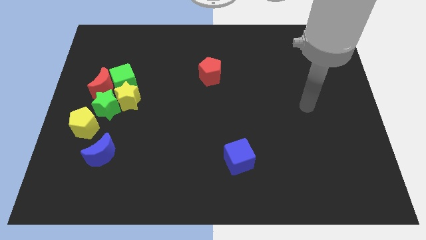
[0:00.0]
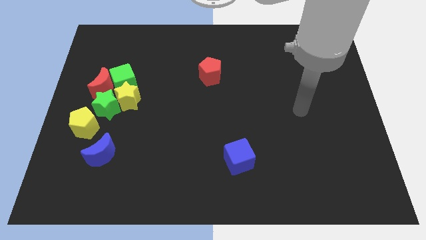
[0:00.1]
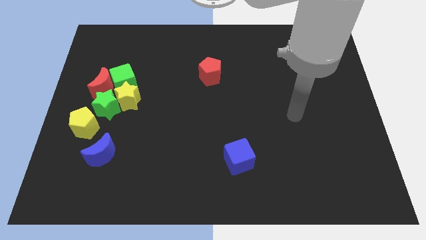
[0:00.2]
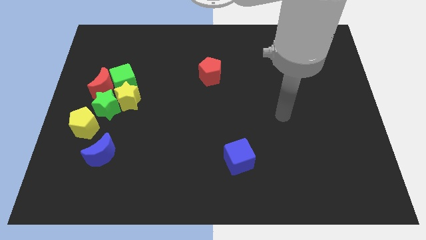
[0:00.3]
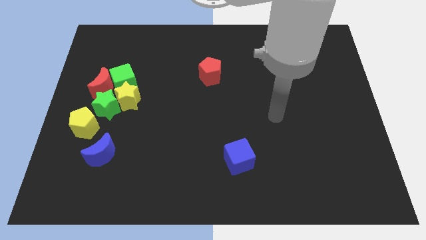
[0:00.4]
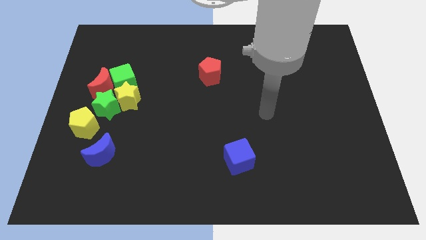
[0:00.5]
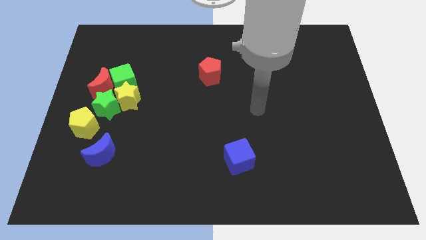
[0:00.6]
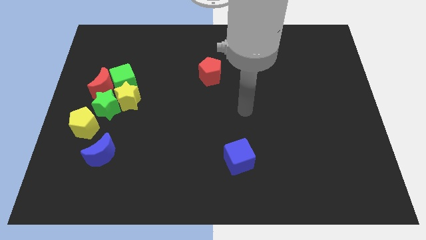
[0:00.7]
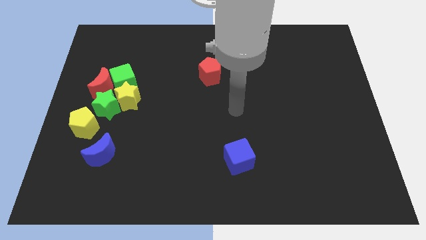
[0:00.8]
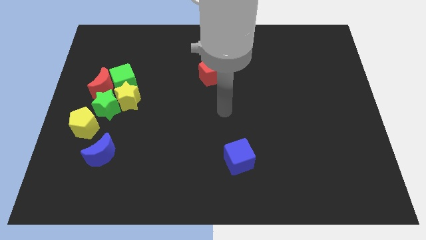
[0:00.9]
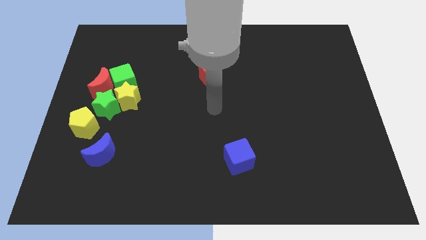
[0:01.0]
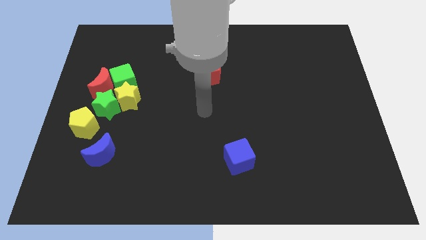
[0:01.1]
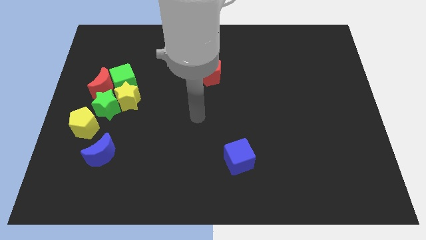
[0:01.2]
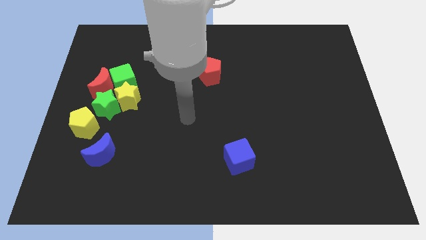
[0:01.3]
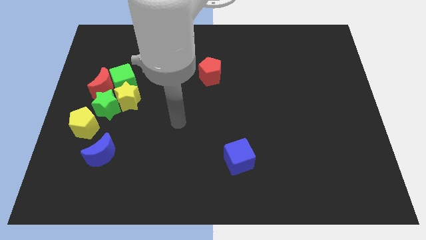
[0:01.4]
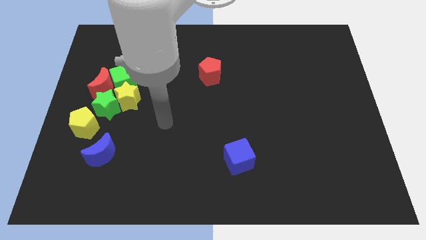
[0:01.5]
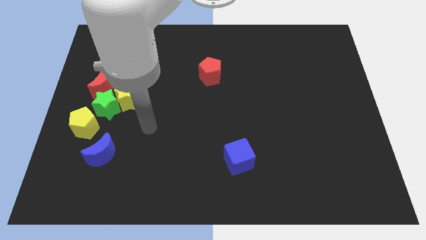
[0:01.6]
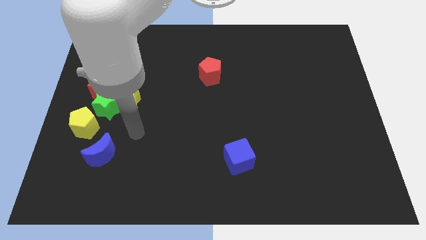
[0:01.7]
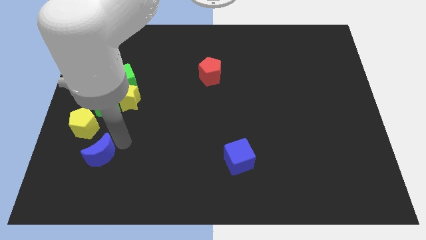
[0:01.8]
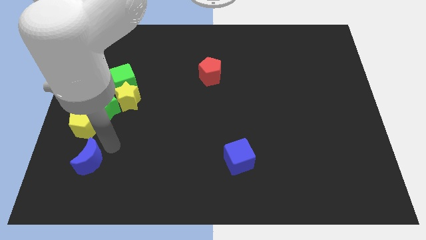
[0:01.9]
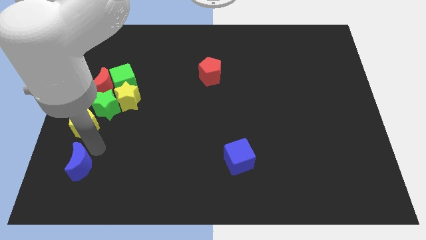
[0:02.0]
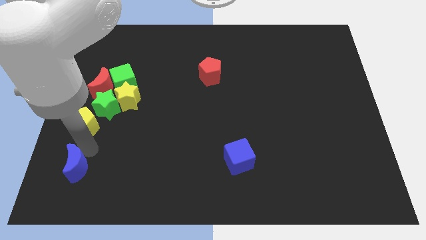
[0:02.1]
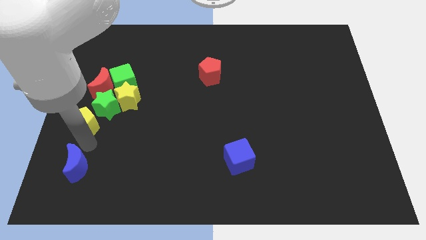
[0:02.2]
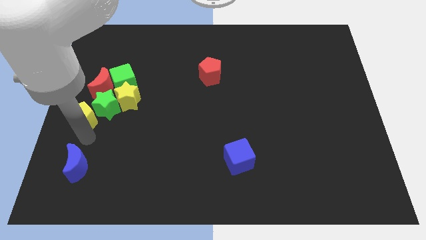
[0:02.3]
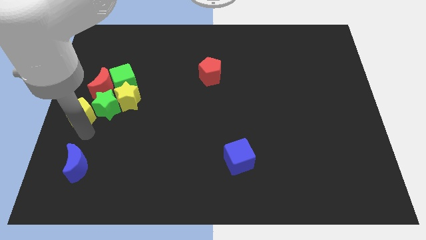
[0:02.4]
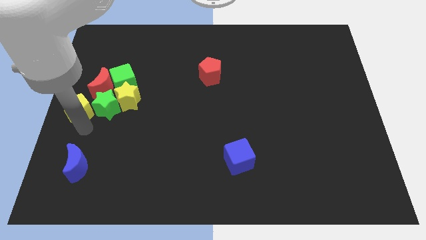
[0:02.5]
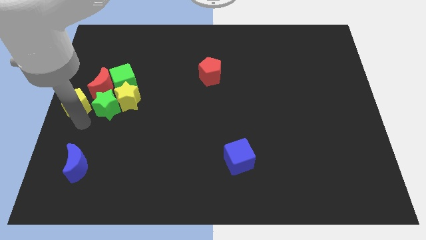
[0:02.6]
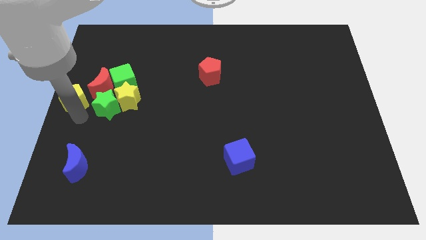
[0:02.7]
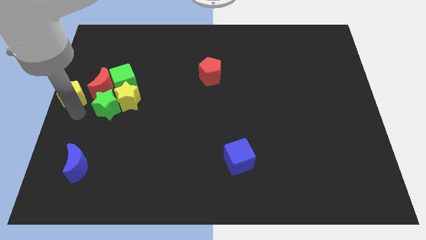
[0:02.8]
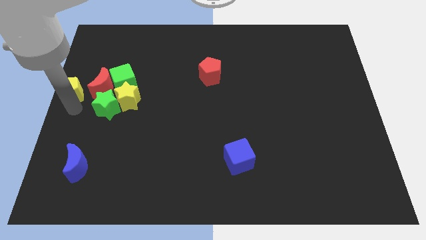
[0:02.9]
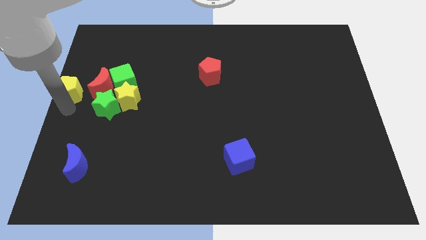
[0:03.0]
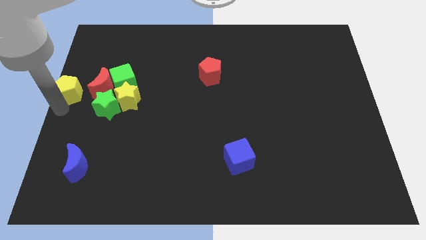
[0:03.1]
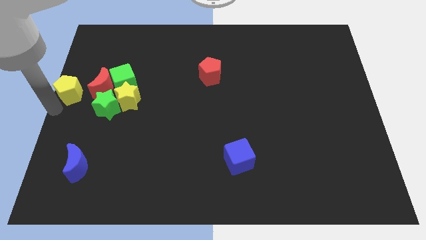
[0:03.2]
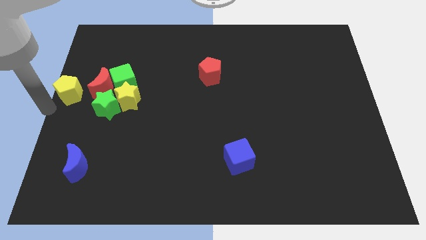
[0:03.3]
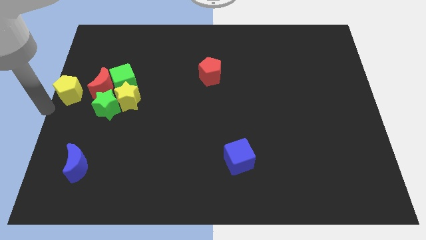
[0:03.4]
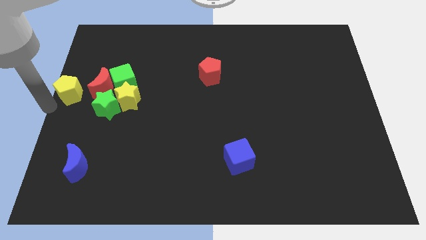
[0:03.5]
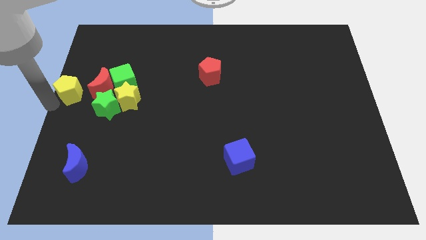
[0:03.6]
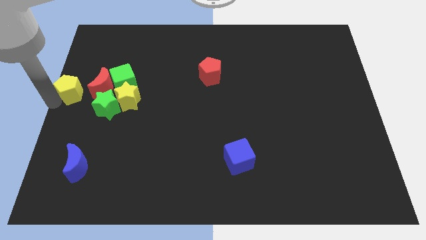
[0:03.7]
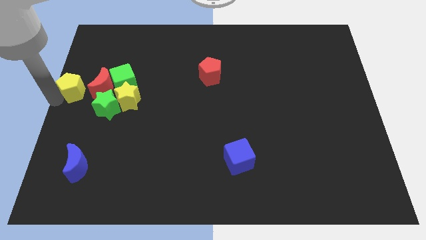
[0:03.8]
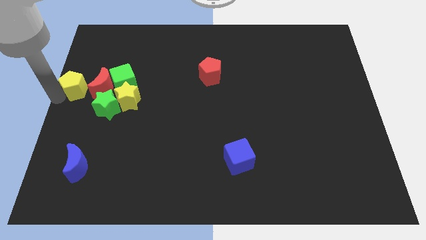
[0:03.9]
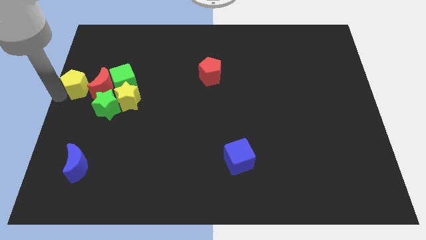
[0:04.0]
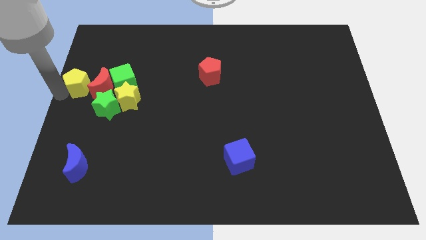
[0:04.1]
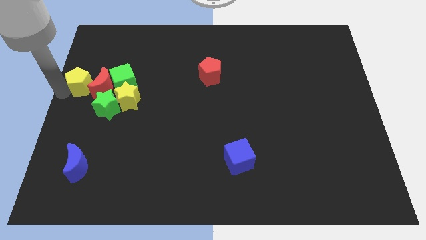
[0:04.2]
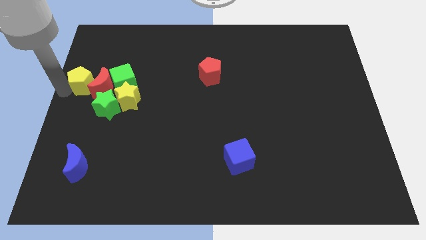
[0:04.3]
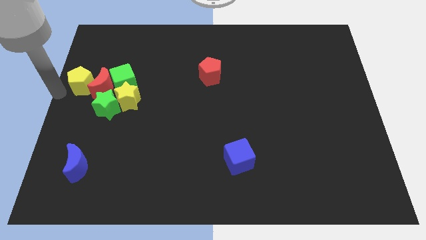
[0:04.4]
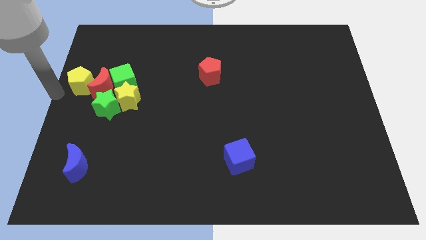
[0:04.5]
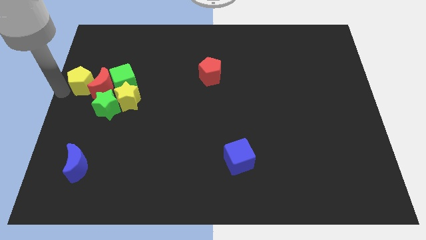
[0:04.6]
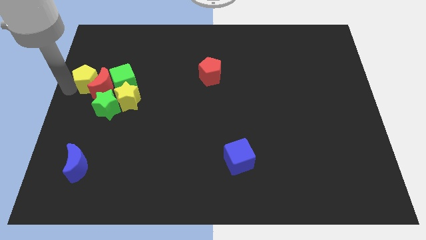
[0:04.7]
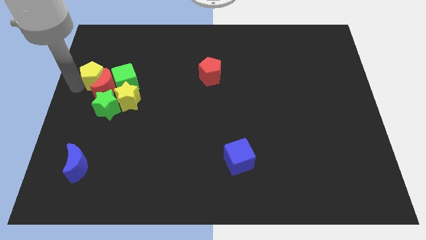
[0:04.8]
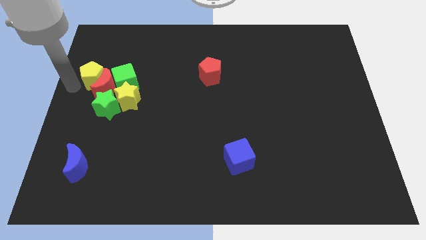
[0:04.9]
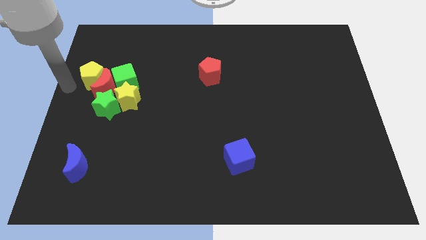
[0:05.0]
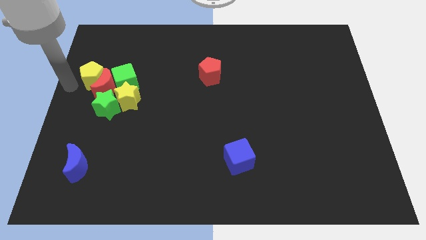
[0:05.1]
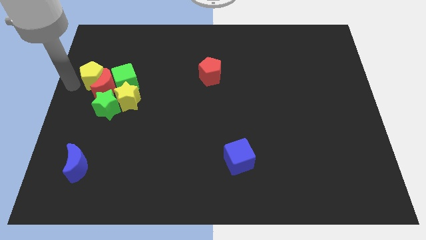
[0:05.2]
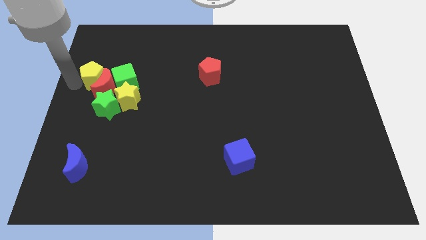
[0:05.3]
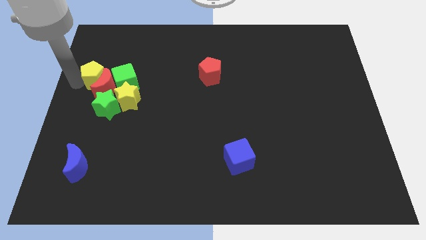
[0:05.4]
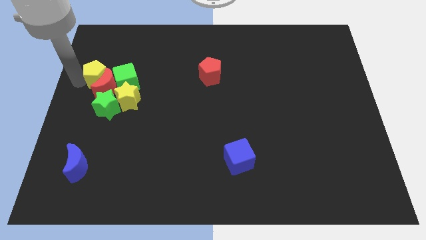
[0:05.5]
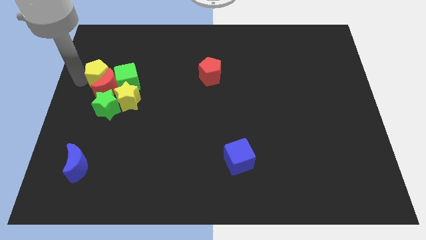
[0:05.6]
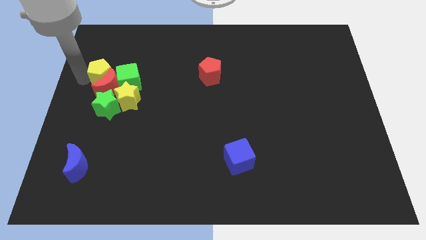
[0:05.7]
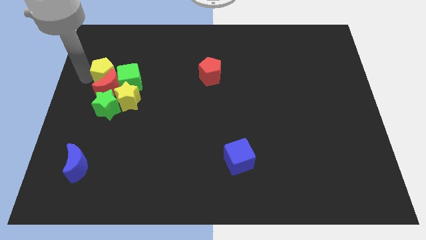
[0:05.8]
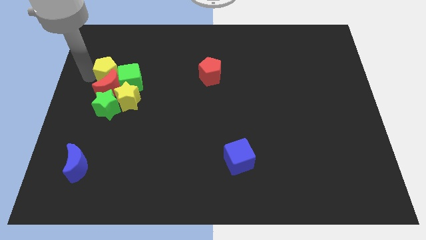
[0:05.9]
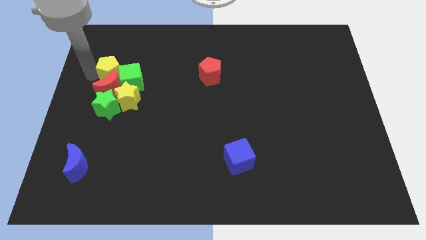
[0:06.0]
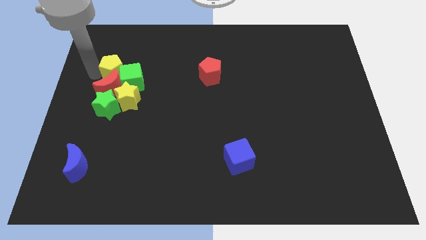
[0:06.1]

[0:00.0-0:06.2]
put the yellow pentagon towards the green cube

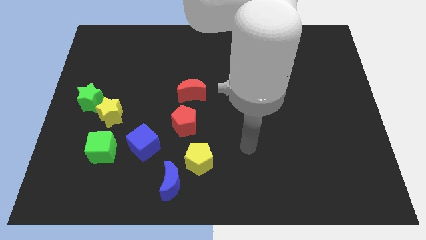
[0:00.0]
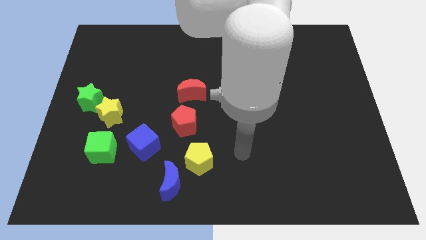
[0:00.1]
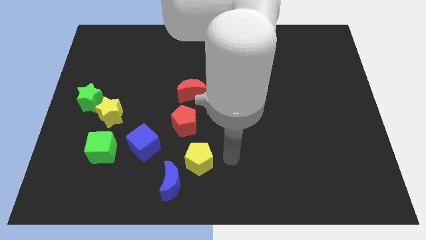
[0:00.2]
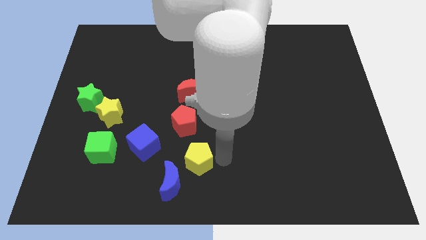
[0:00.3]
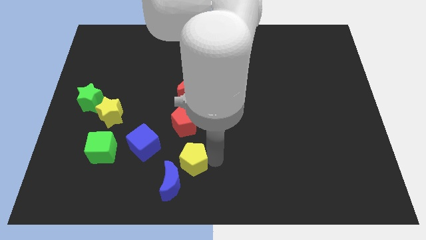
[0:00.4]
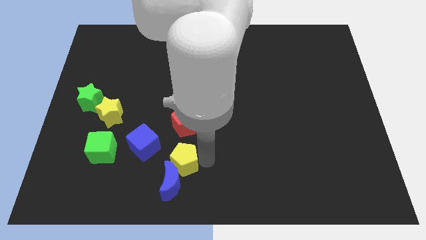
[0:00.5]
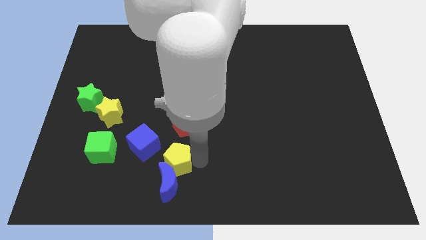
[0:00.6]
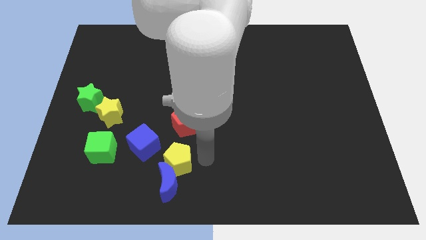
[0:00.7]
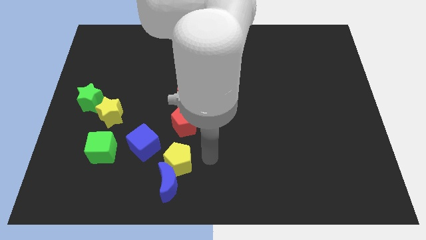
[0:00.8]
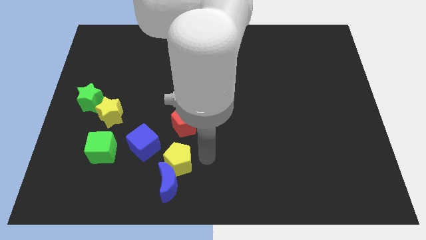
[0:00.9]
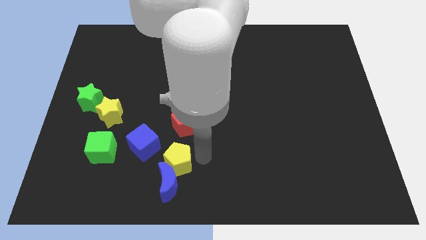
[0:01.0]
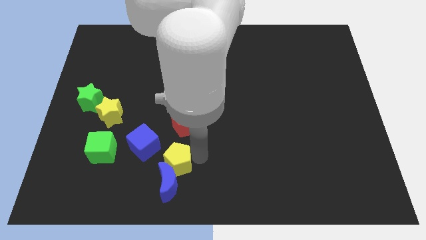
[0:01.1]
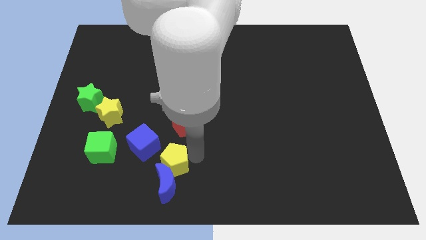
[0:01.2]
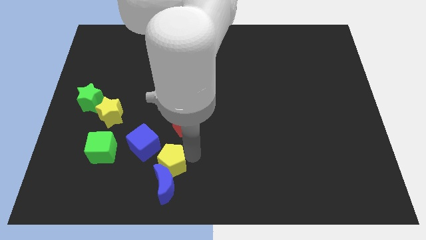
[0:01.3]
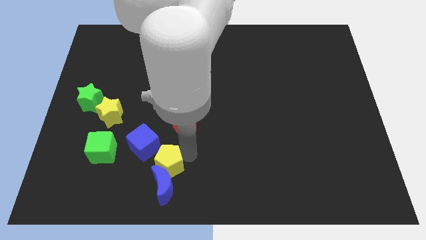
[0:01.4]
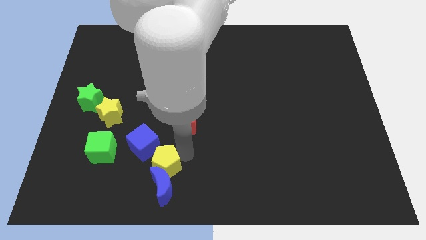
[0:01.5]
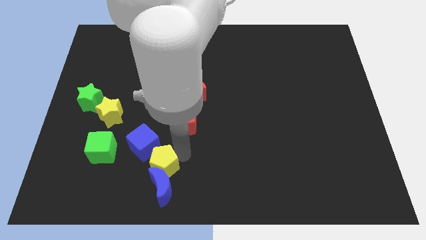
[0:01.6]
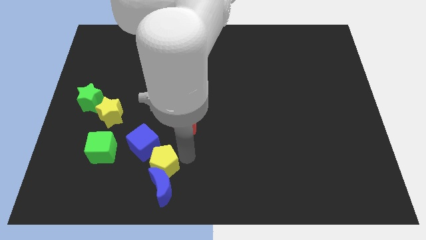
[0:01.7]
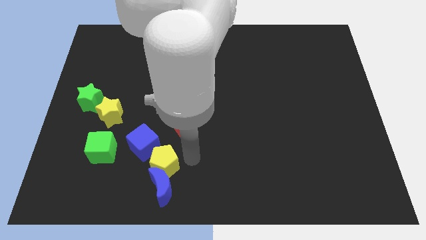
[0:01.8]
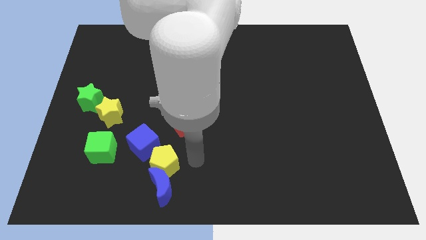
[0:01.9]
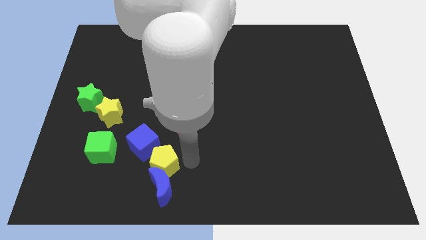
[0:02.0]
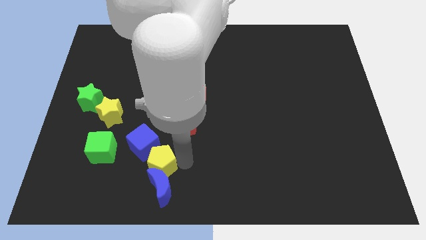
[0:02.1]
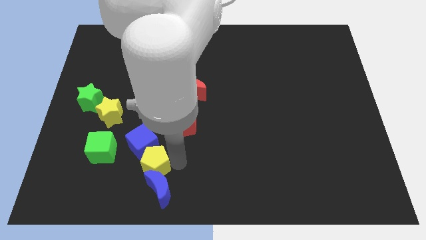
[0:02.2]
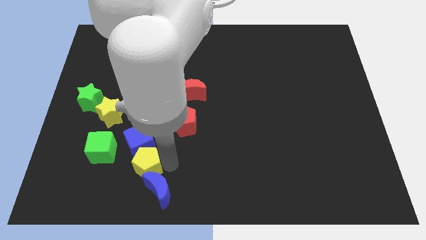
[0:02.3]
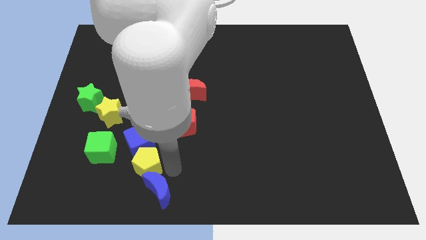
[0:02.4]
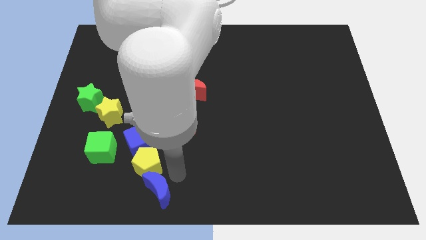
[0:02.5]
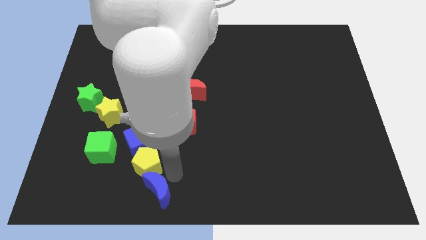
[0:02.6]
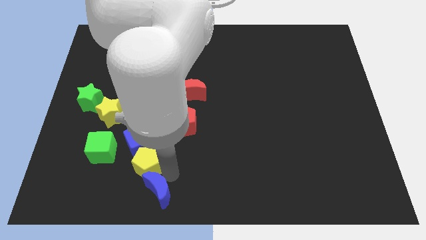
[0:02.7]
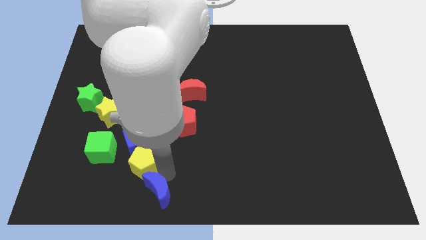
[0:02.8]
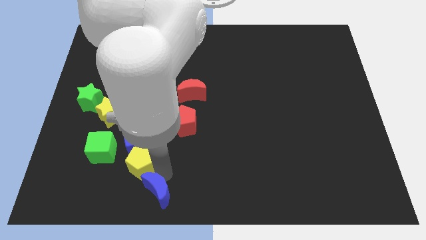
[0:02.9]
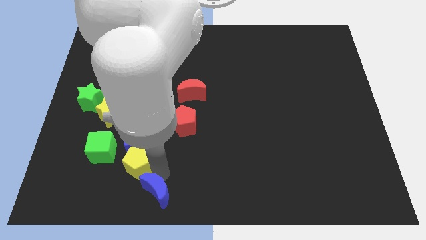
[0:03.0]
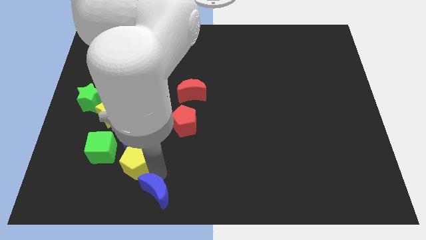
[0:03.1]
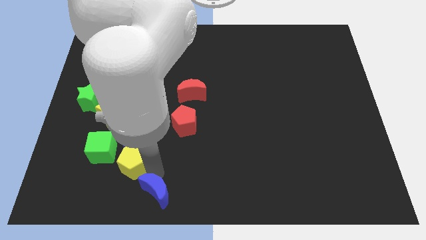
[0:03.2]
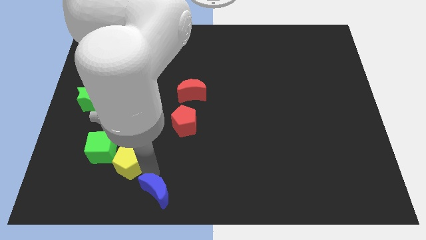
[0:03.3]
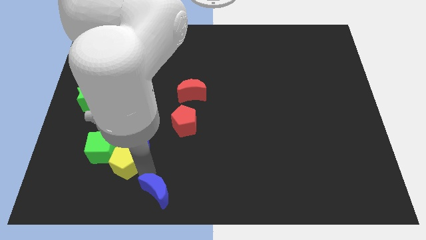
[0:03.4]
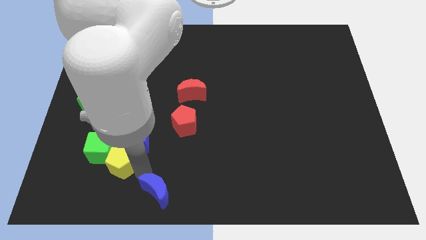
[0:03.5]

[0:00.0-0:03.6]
put the yellow pentagon to the green cube
